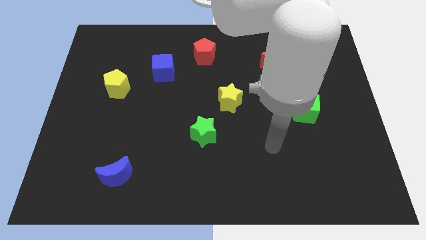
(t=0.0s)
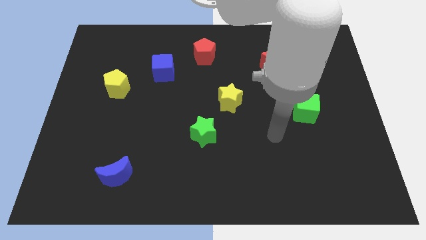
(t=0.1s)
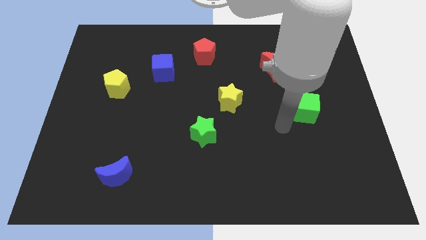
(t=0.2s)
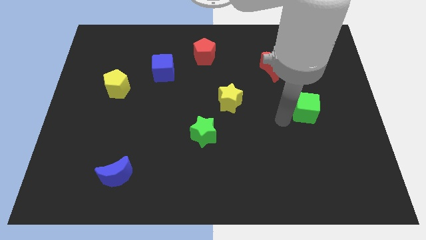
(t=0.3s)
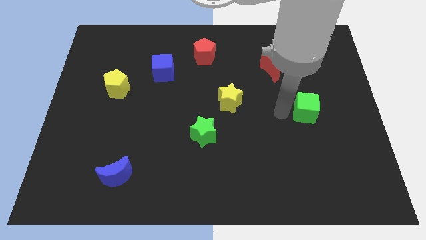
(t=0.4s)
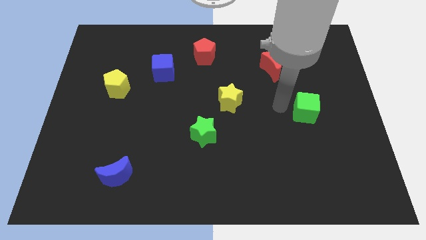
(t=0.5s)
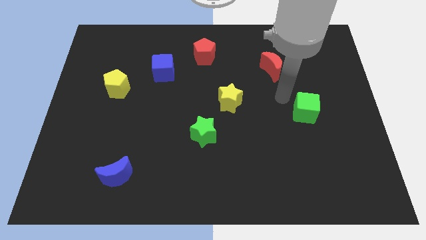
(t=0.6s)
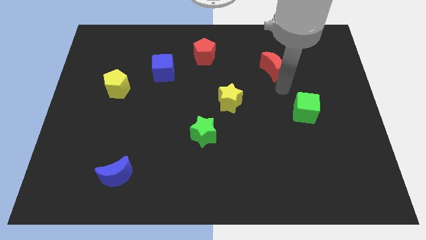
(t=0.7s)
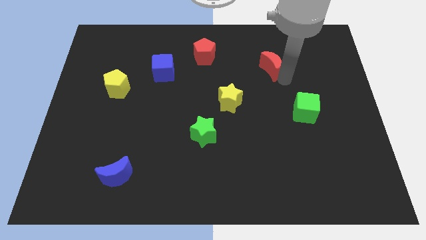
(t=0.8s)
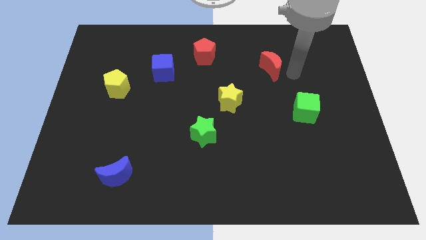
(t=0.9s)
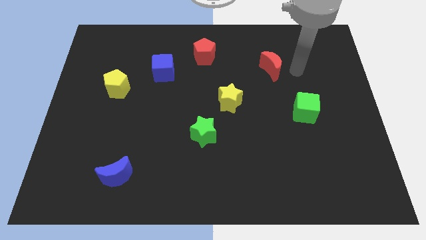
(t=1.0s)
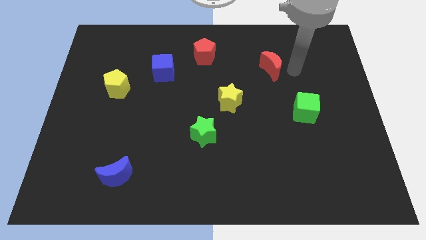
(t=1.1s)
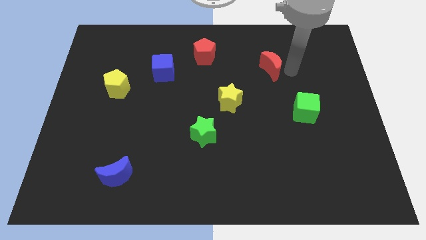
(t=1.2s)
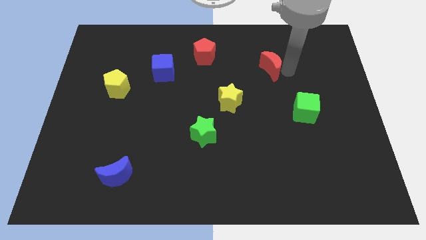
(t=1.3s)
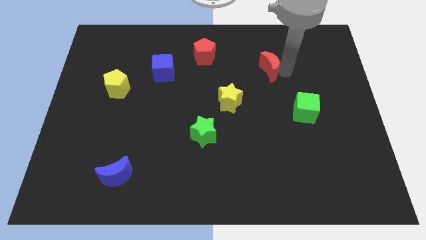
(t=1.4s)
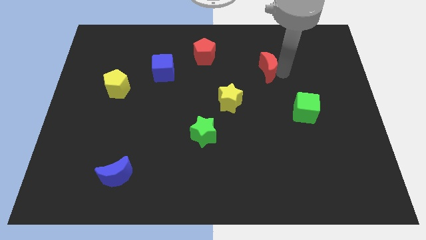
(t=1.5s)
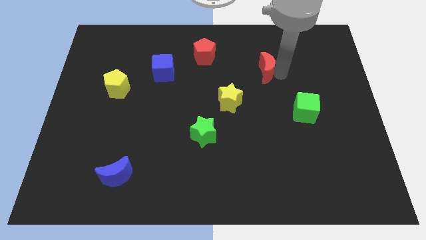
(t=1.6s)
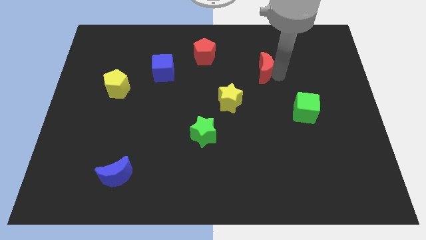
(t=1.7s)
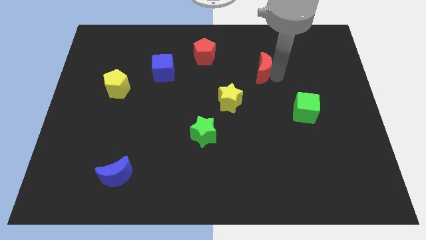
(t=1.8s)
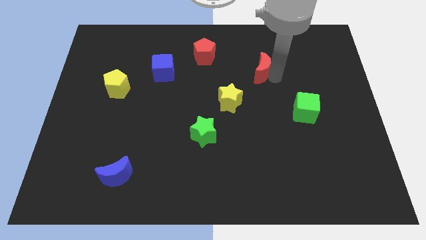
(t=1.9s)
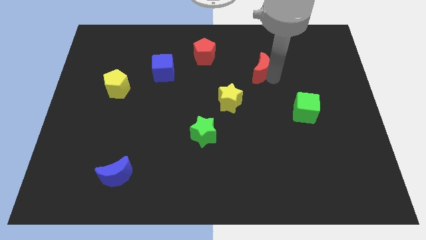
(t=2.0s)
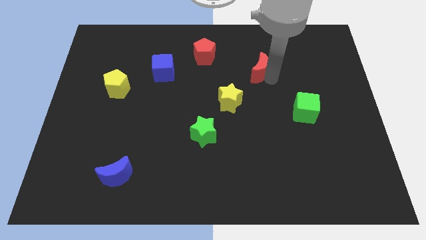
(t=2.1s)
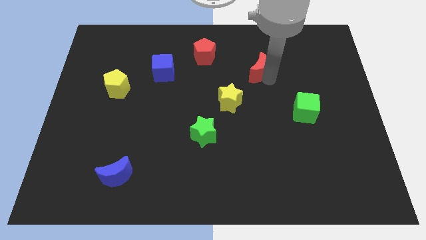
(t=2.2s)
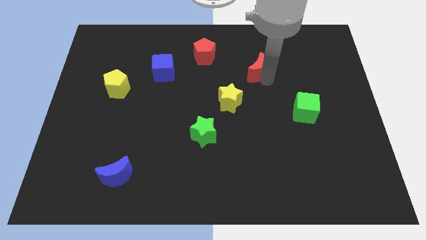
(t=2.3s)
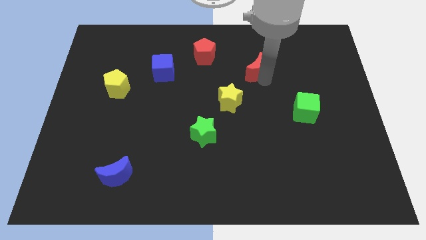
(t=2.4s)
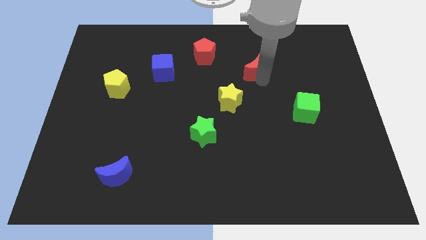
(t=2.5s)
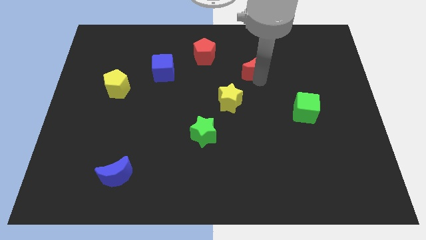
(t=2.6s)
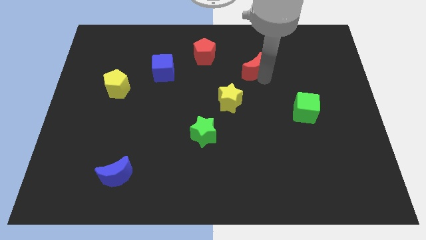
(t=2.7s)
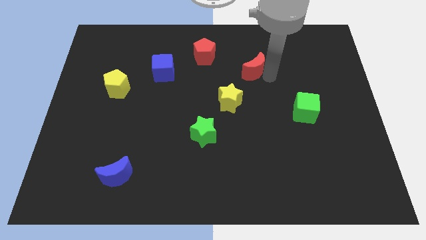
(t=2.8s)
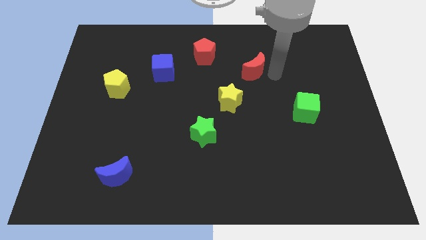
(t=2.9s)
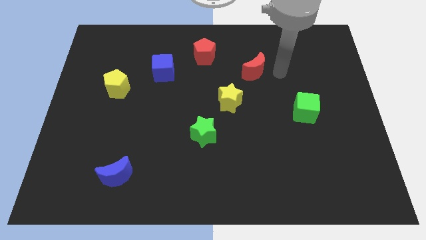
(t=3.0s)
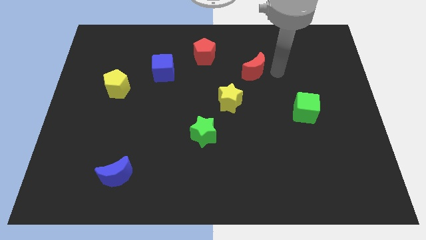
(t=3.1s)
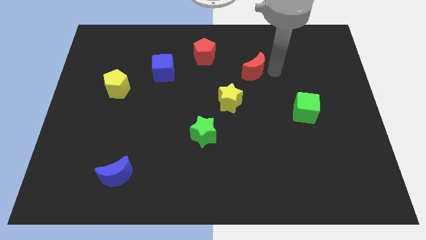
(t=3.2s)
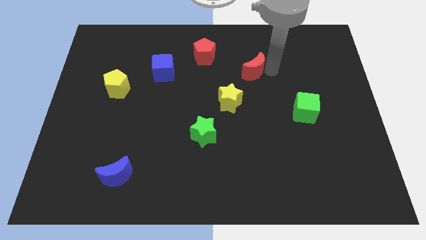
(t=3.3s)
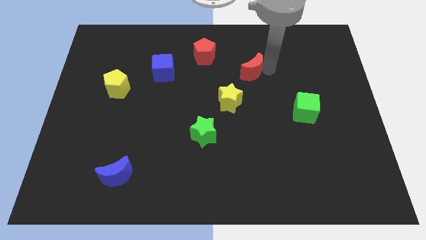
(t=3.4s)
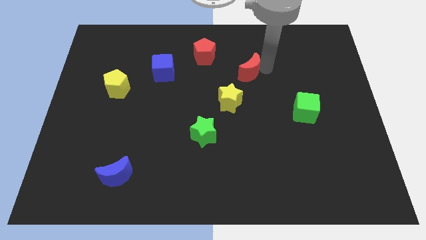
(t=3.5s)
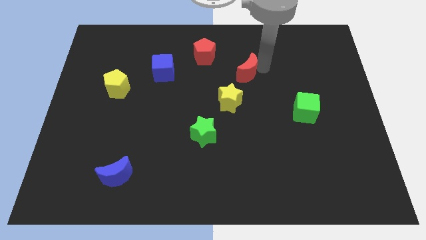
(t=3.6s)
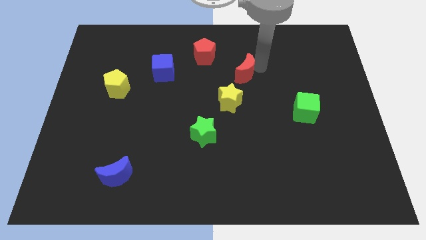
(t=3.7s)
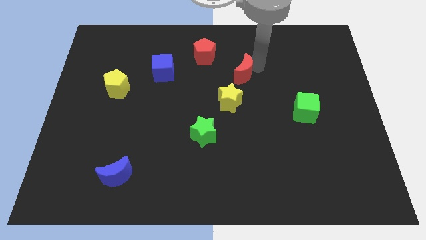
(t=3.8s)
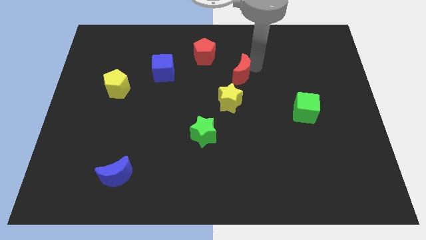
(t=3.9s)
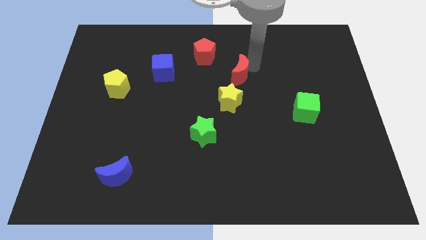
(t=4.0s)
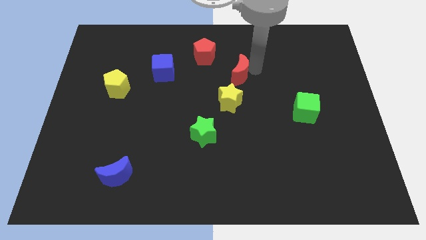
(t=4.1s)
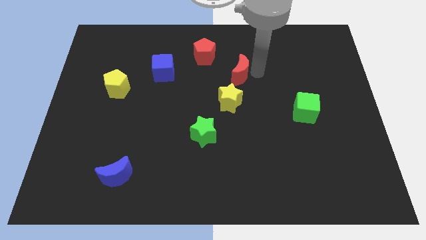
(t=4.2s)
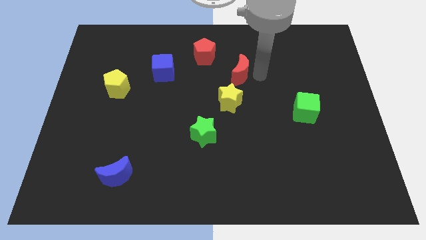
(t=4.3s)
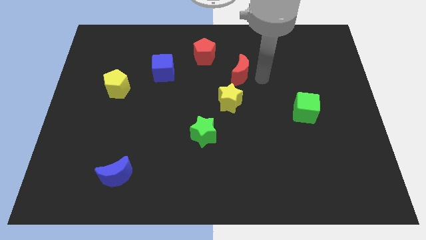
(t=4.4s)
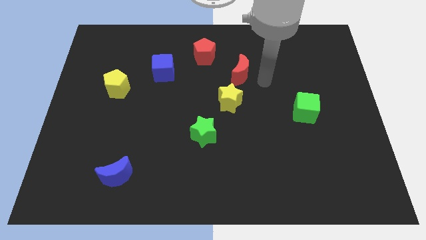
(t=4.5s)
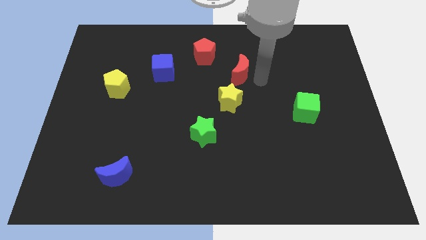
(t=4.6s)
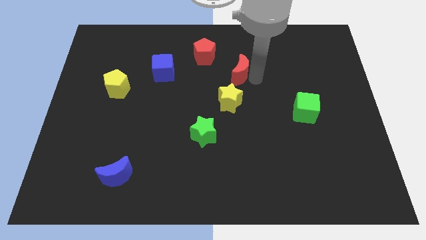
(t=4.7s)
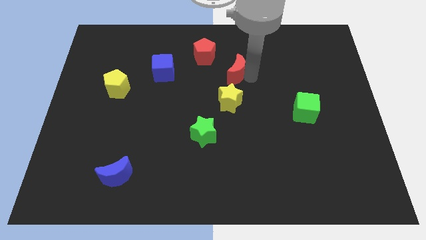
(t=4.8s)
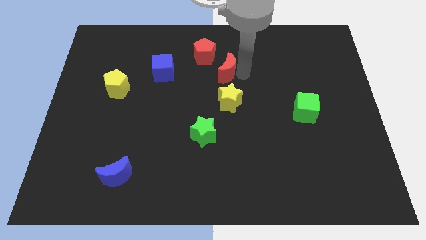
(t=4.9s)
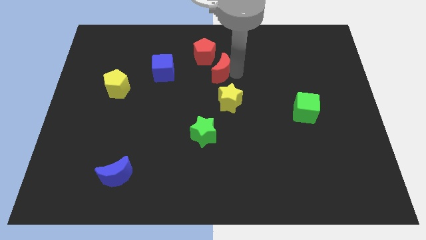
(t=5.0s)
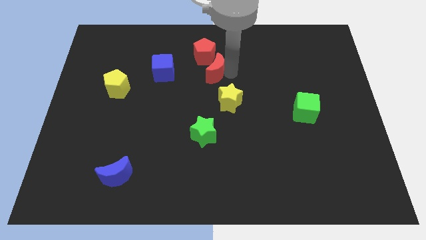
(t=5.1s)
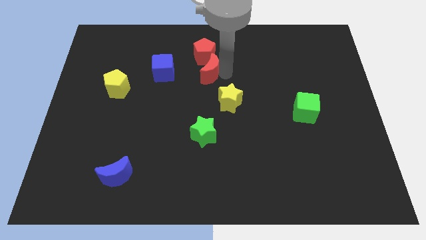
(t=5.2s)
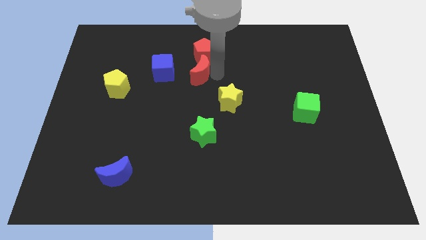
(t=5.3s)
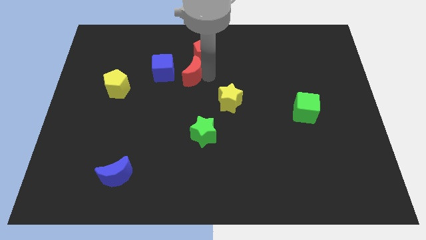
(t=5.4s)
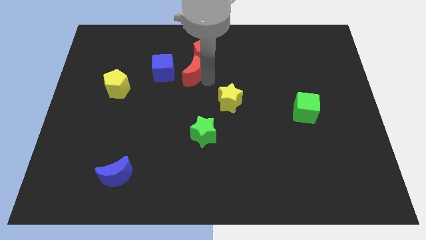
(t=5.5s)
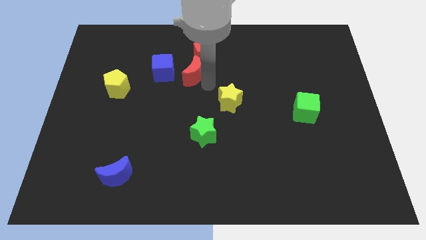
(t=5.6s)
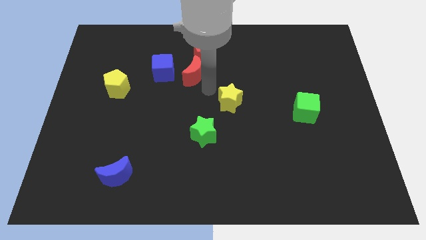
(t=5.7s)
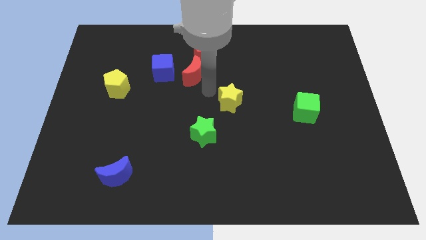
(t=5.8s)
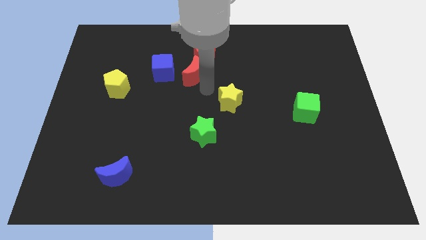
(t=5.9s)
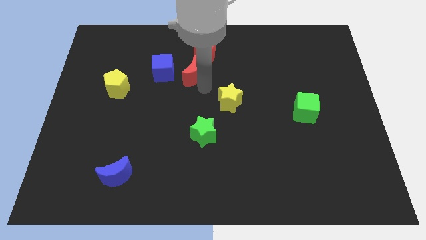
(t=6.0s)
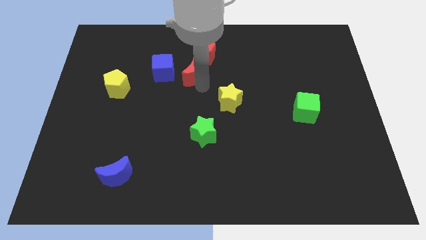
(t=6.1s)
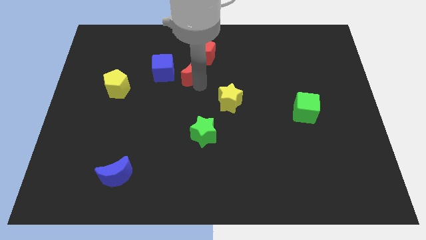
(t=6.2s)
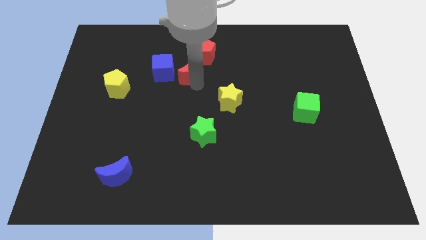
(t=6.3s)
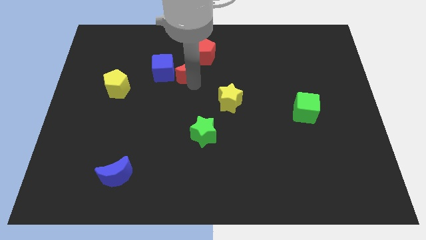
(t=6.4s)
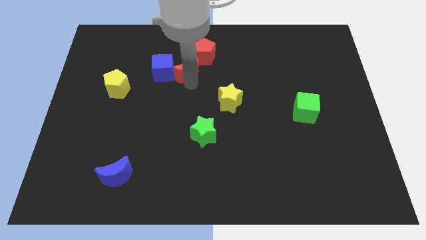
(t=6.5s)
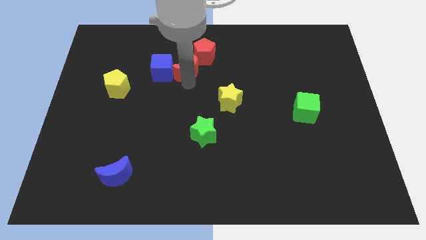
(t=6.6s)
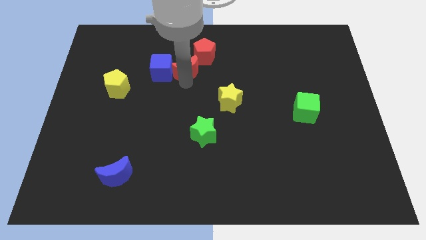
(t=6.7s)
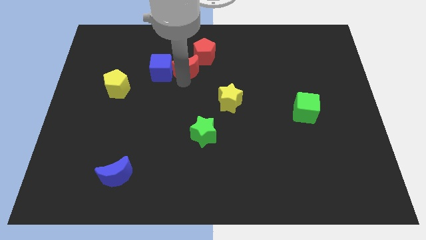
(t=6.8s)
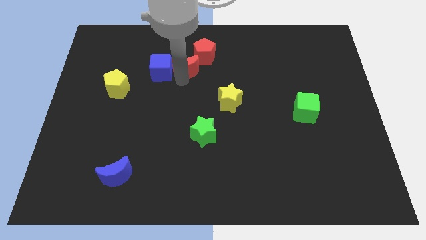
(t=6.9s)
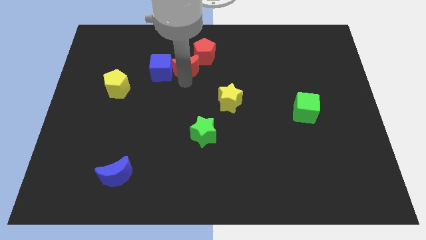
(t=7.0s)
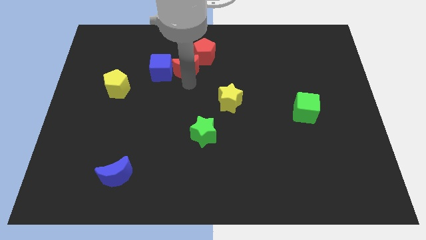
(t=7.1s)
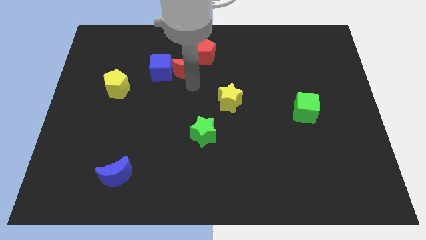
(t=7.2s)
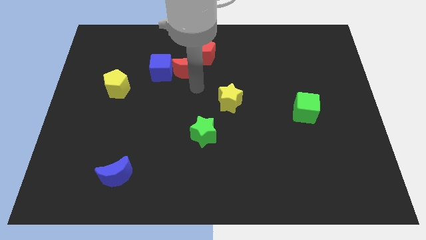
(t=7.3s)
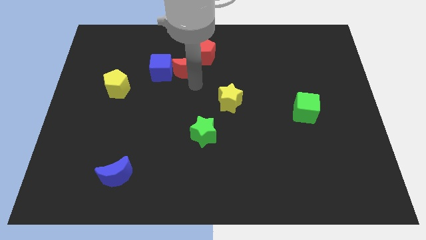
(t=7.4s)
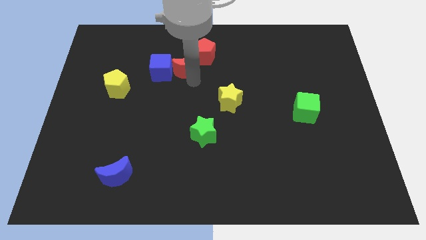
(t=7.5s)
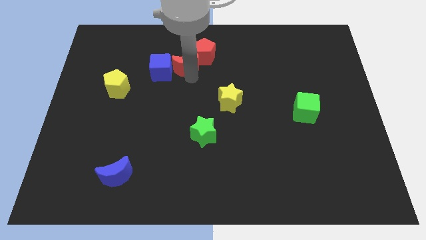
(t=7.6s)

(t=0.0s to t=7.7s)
put the red moon to the left side of the red pentagon

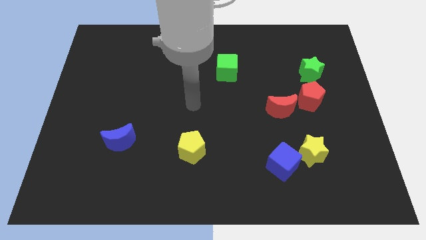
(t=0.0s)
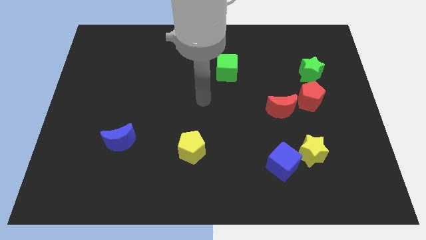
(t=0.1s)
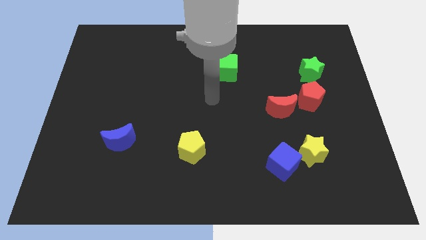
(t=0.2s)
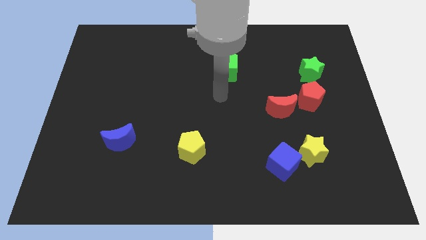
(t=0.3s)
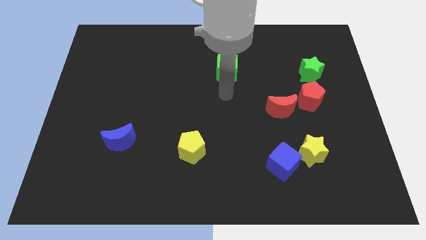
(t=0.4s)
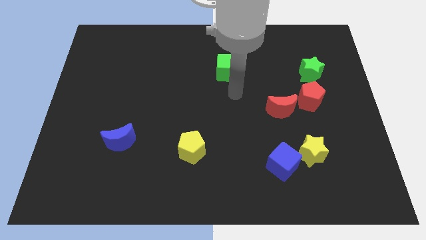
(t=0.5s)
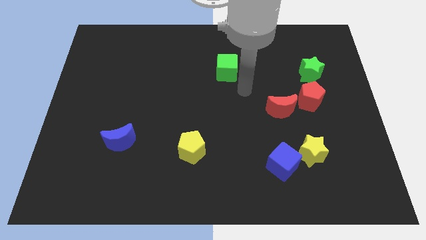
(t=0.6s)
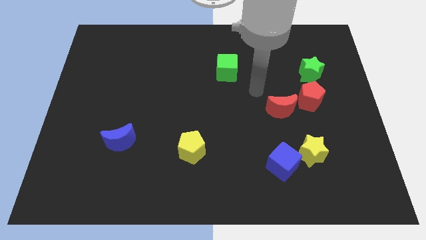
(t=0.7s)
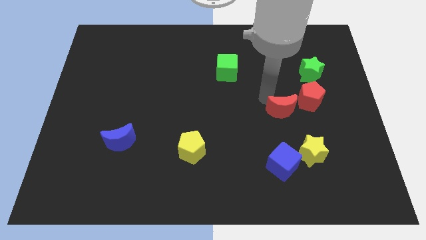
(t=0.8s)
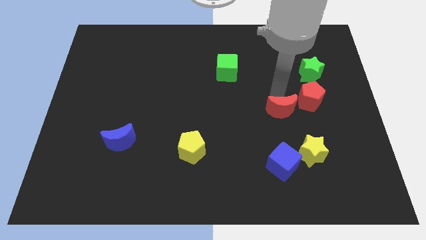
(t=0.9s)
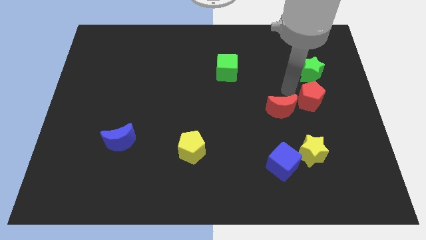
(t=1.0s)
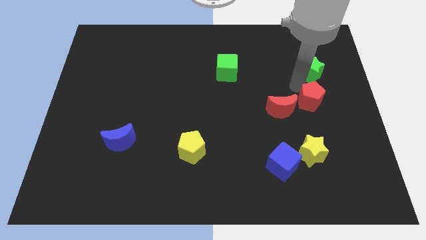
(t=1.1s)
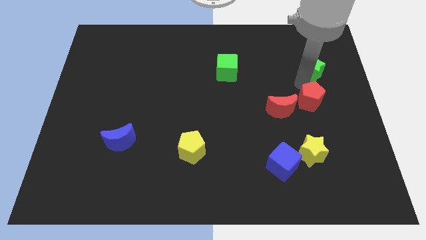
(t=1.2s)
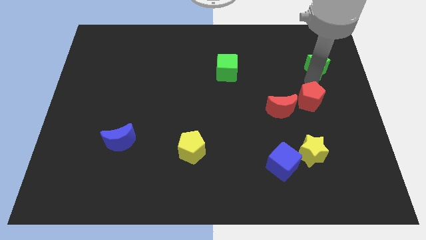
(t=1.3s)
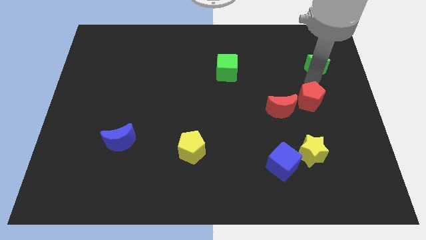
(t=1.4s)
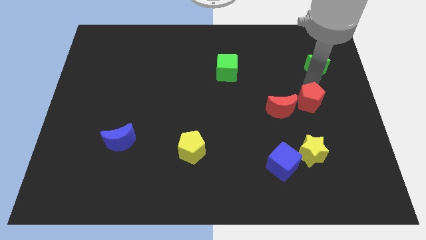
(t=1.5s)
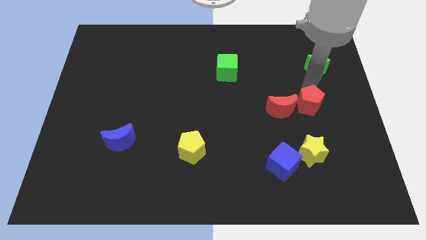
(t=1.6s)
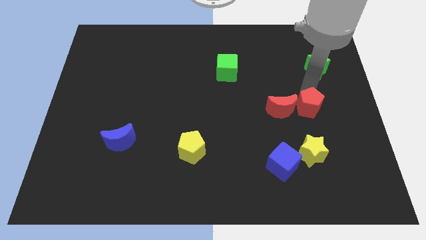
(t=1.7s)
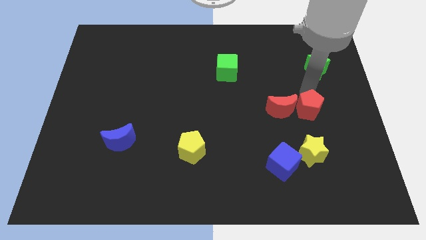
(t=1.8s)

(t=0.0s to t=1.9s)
move the red pentagon diagonally down and to the right of the red moon
